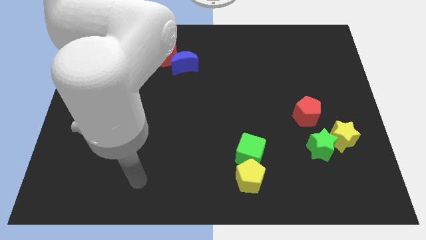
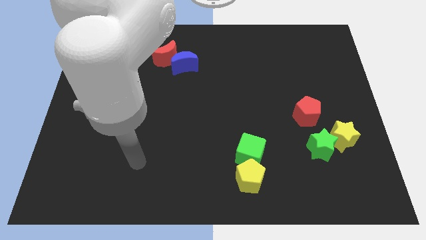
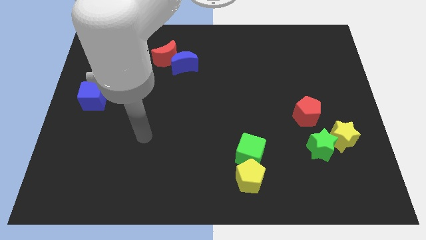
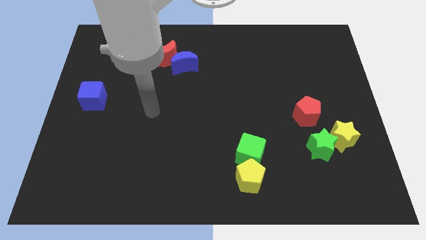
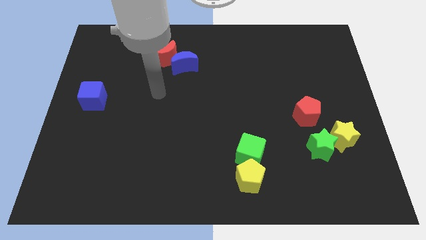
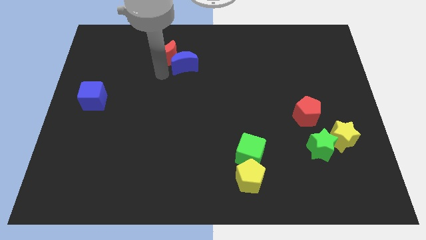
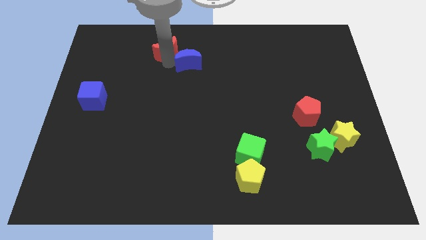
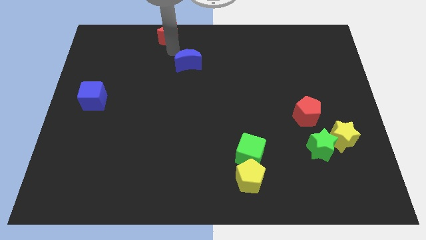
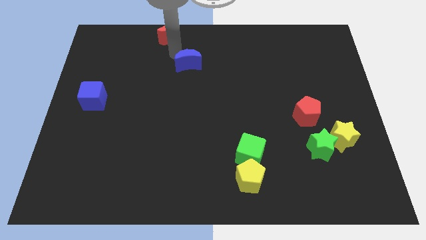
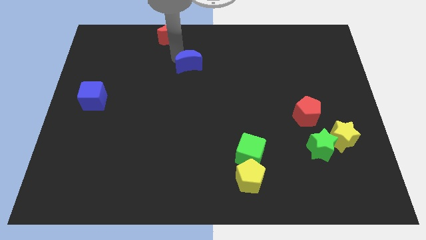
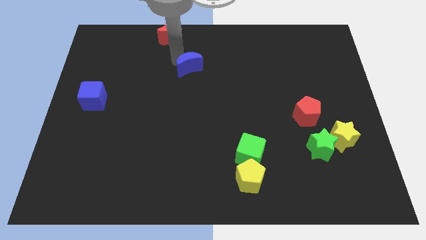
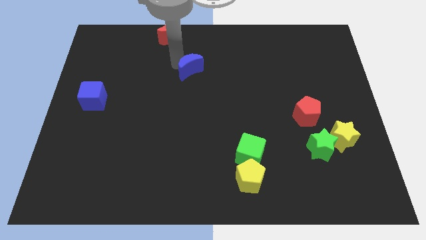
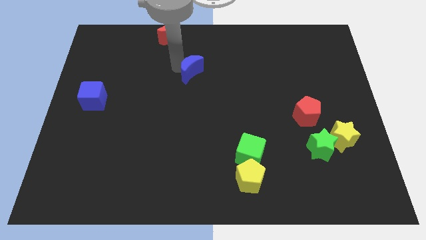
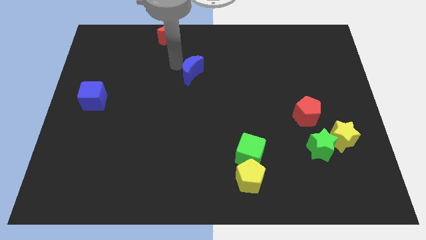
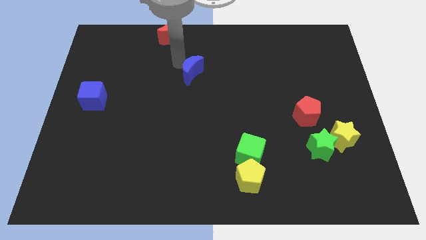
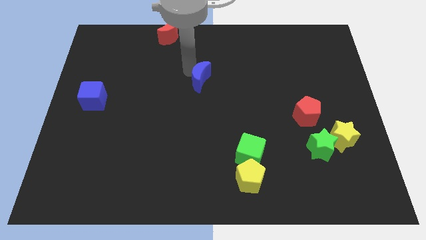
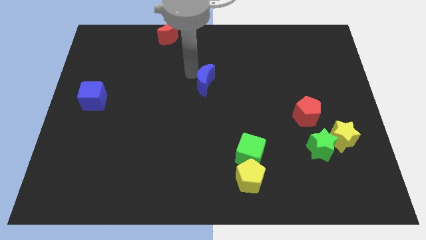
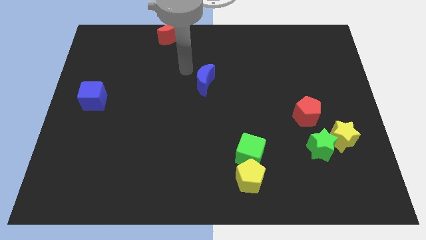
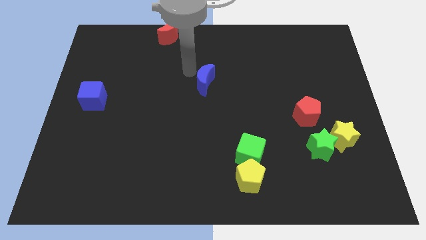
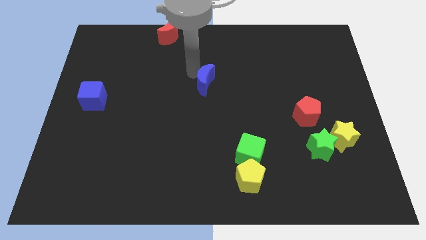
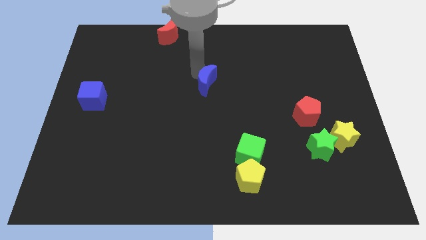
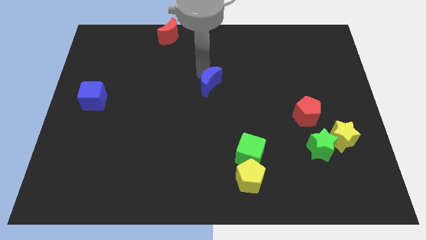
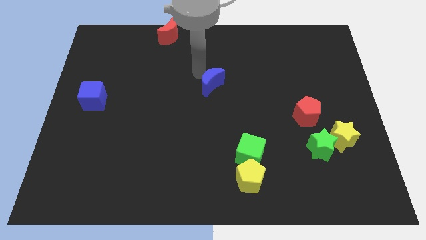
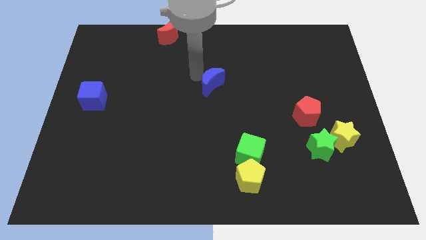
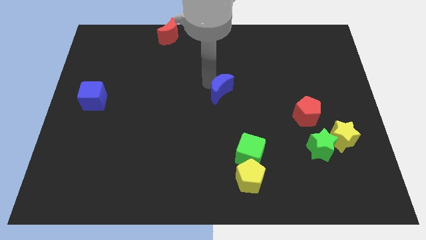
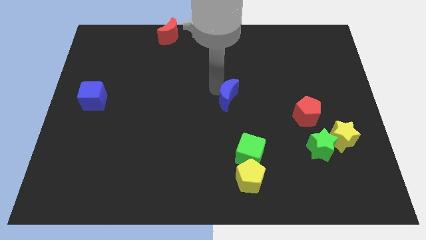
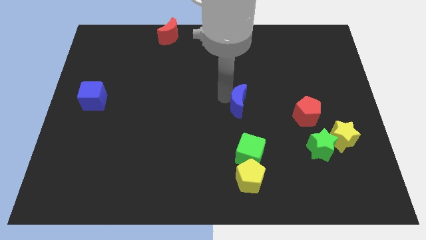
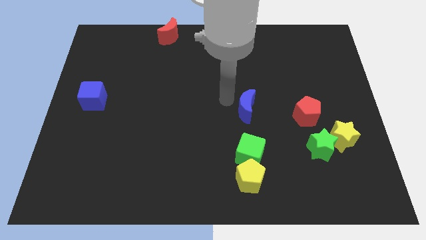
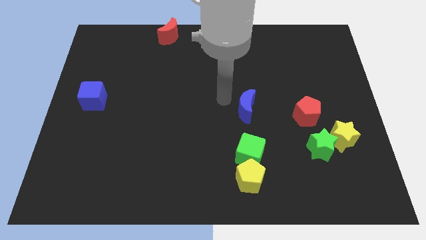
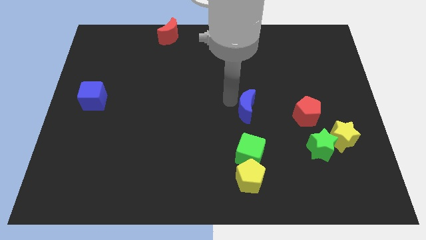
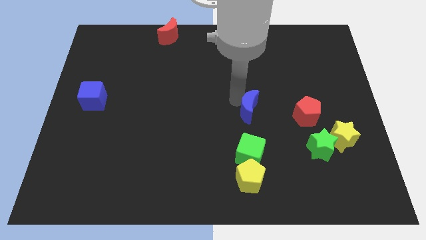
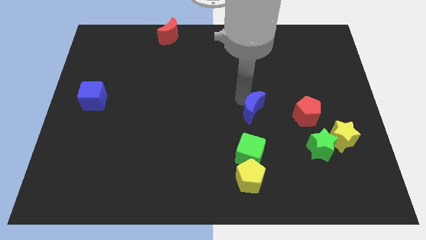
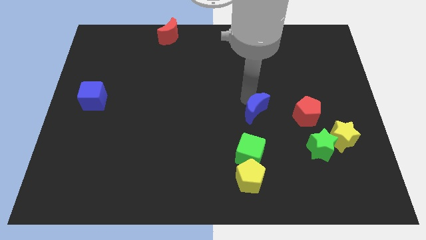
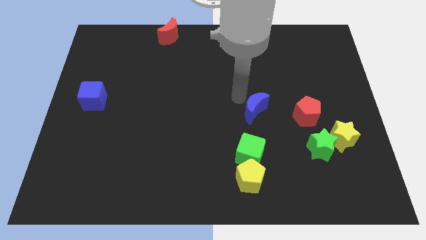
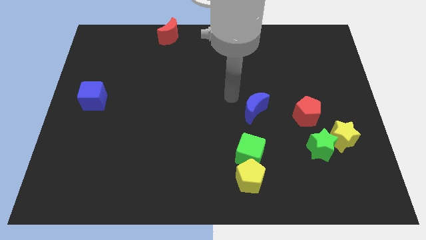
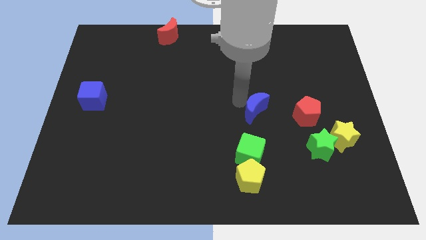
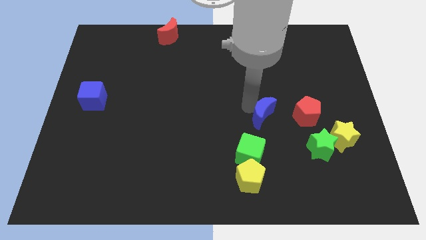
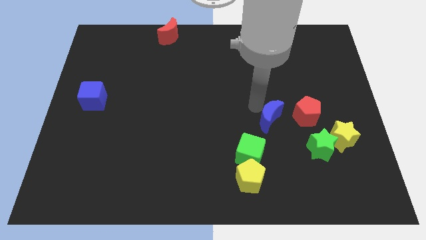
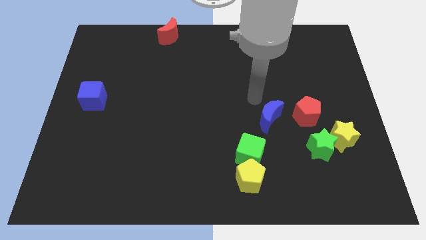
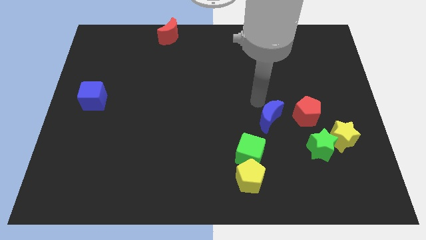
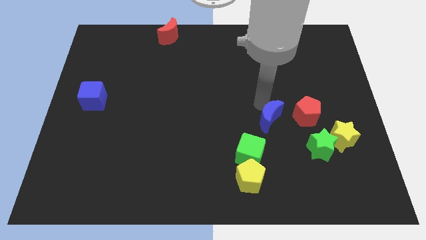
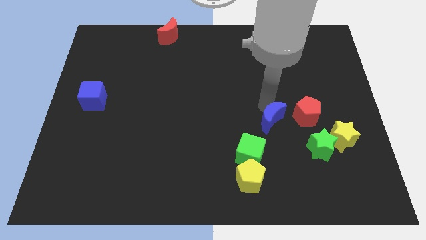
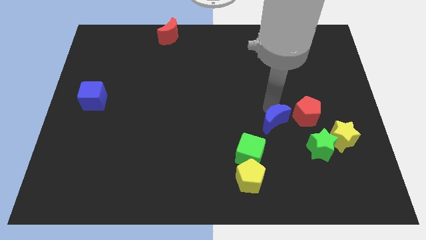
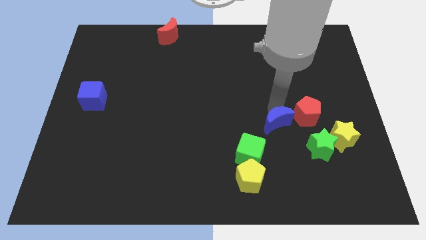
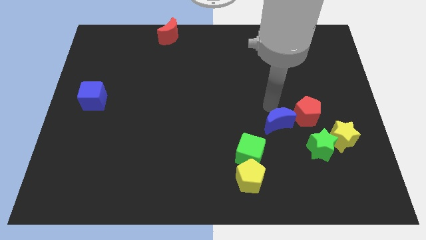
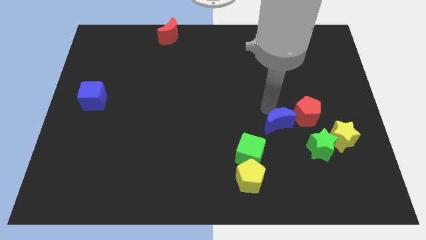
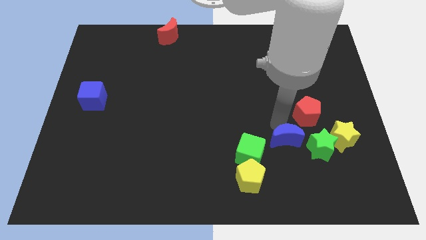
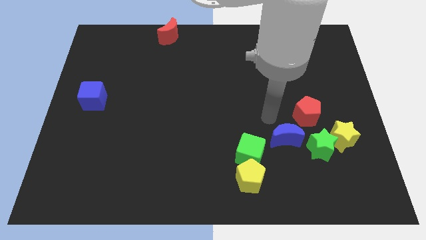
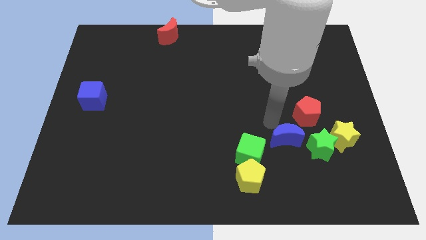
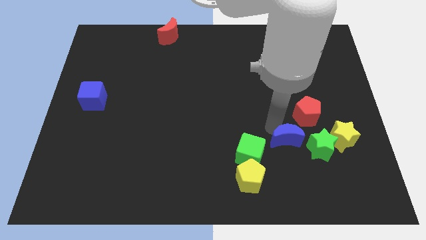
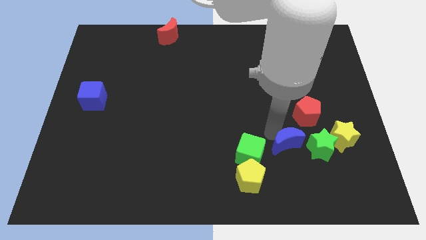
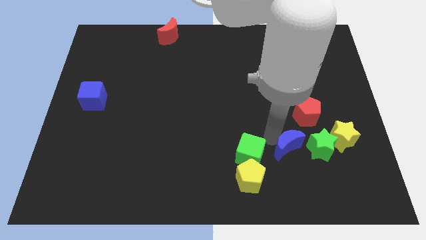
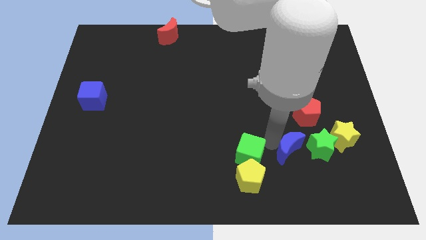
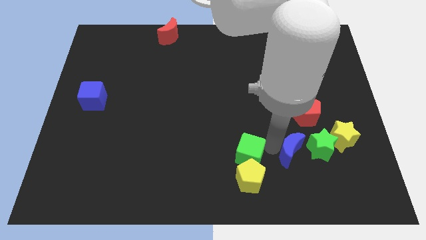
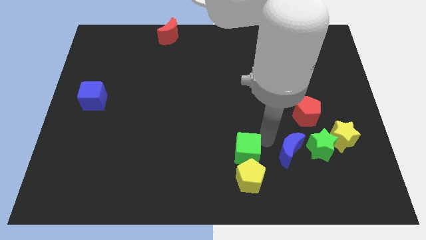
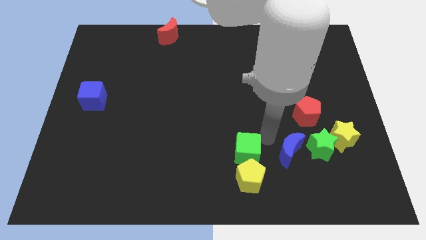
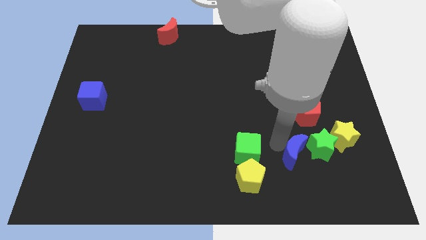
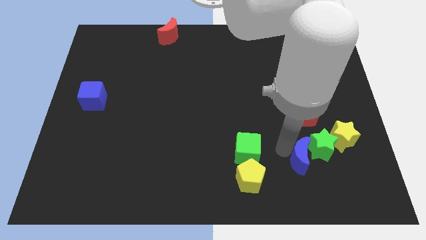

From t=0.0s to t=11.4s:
push the blue moon to the bottom left of the yellow star
